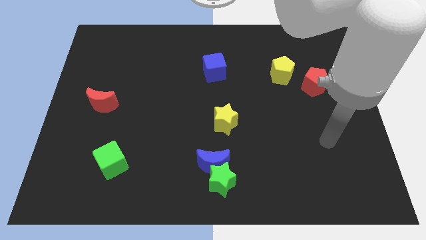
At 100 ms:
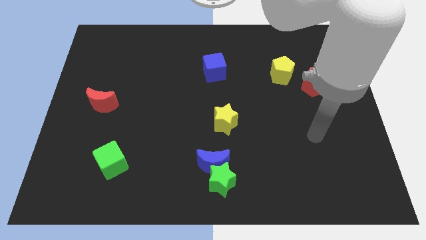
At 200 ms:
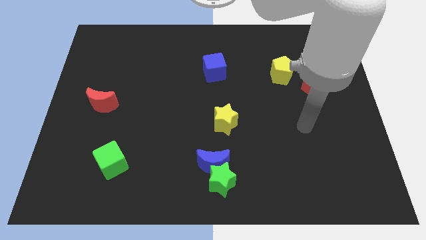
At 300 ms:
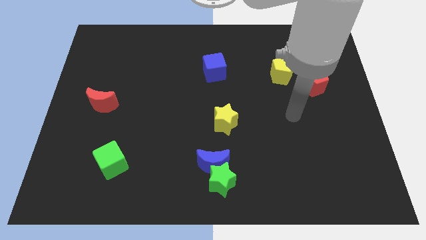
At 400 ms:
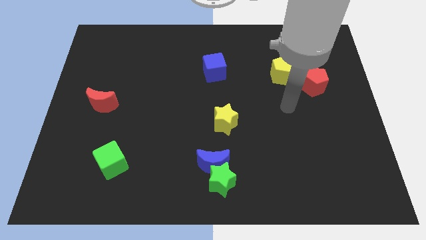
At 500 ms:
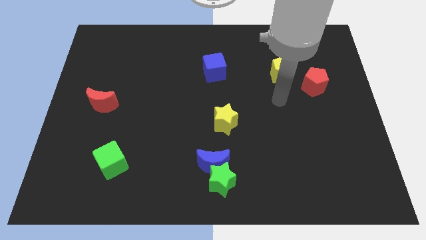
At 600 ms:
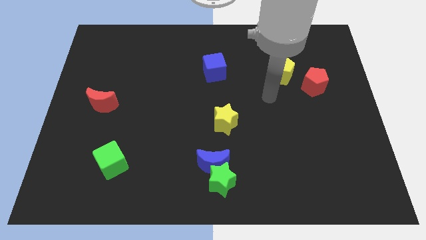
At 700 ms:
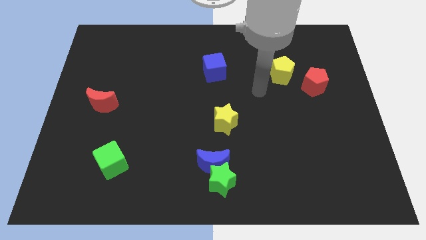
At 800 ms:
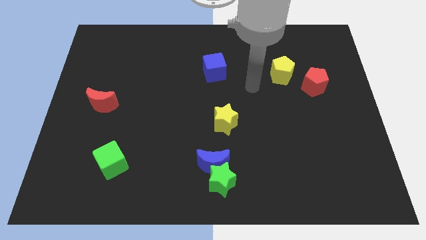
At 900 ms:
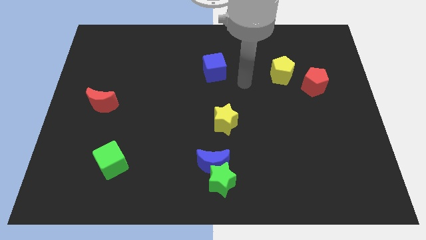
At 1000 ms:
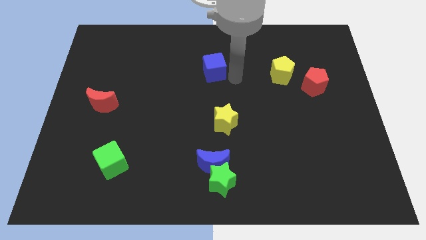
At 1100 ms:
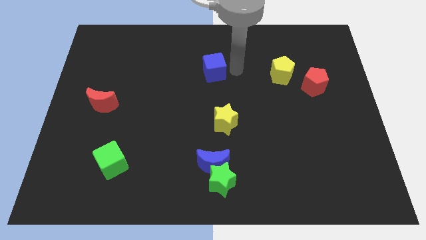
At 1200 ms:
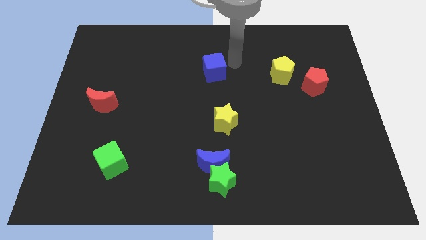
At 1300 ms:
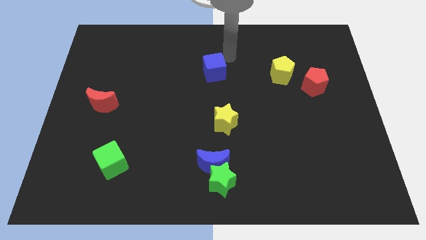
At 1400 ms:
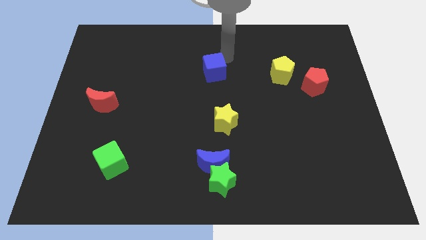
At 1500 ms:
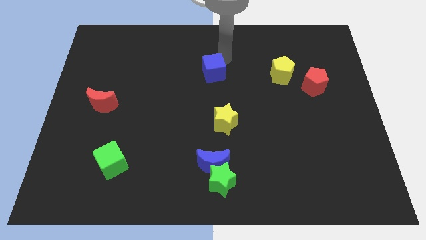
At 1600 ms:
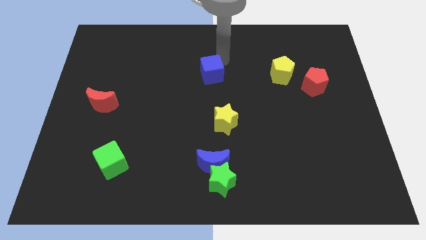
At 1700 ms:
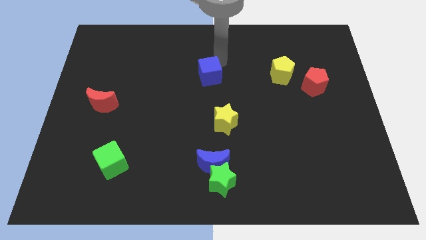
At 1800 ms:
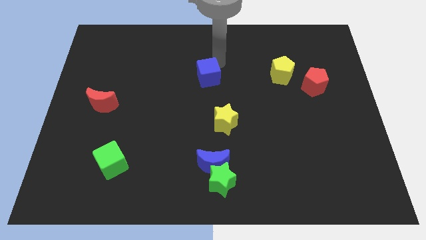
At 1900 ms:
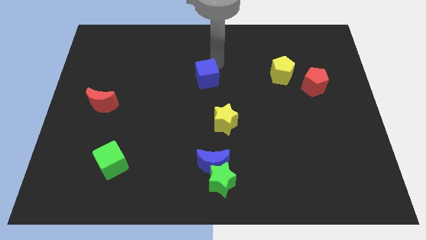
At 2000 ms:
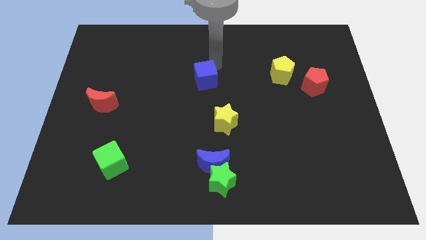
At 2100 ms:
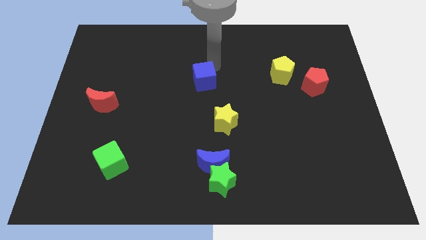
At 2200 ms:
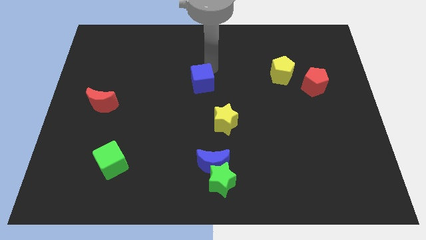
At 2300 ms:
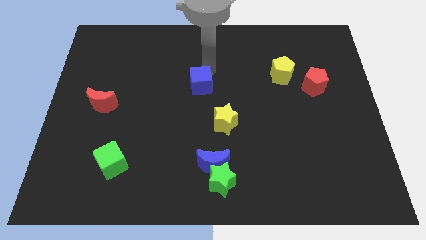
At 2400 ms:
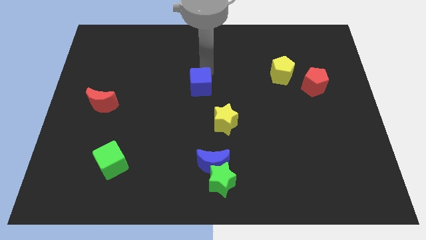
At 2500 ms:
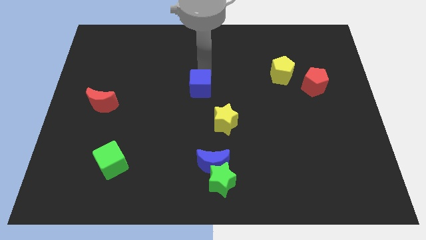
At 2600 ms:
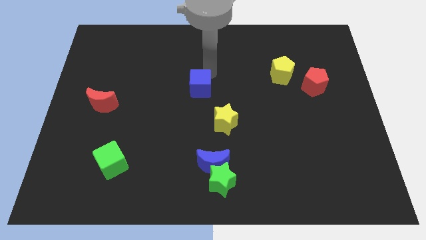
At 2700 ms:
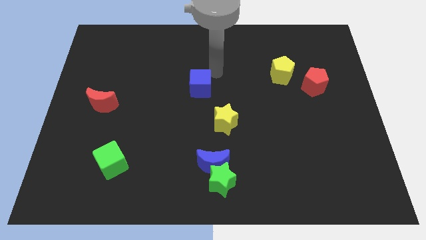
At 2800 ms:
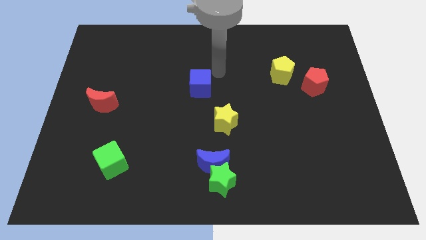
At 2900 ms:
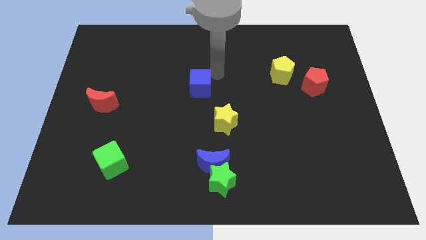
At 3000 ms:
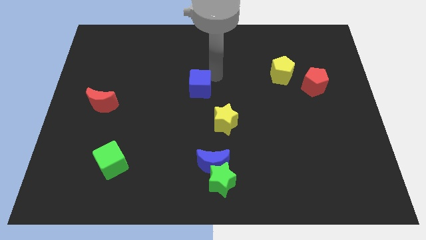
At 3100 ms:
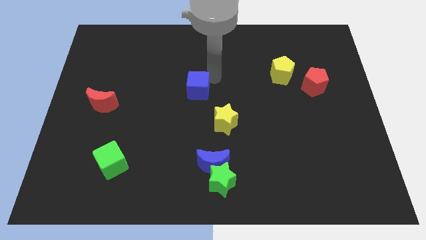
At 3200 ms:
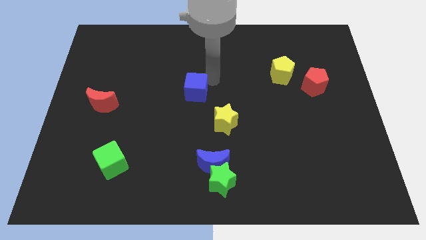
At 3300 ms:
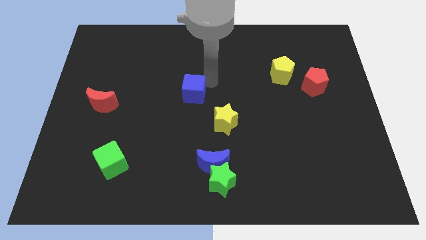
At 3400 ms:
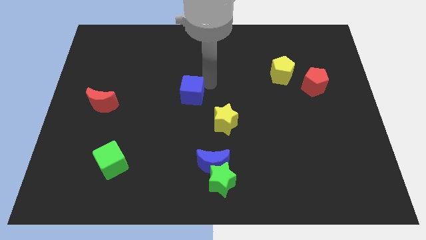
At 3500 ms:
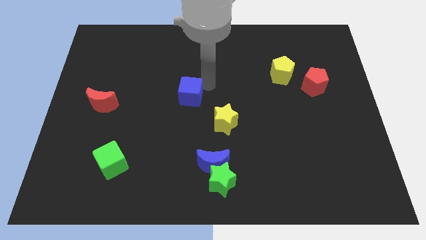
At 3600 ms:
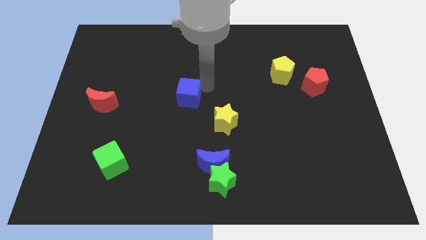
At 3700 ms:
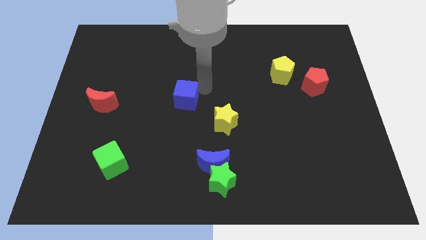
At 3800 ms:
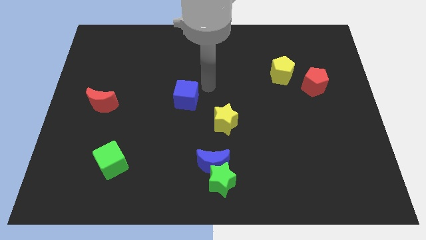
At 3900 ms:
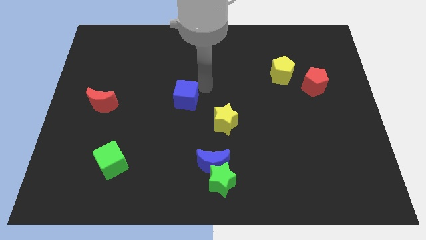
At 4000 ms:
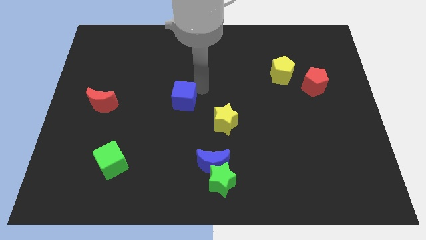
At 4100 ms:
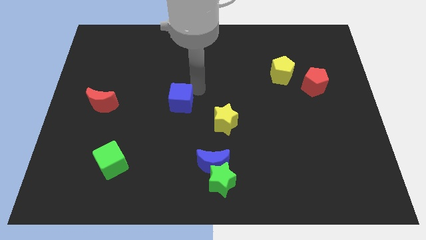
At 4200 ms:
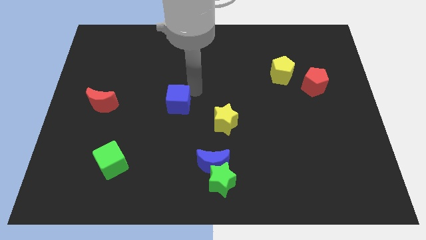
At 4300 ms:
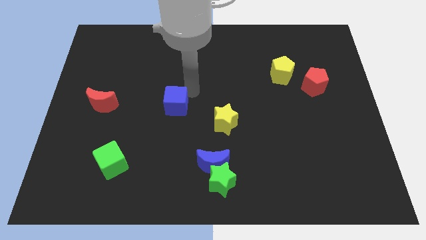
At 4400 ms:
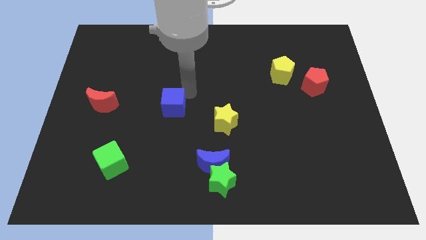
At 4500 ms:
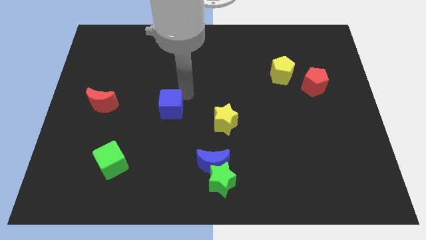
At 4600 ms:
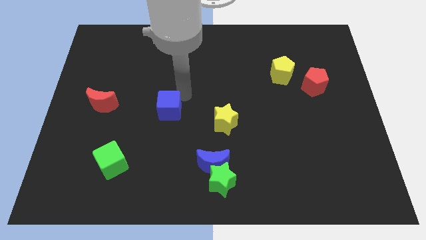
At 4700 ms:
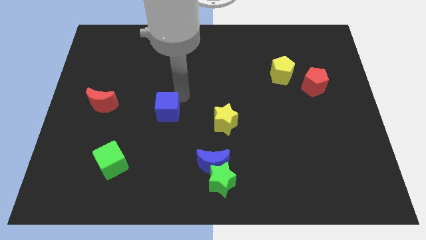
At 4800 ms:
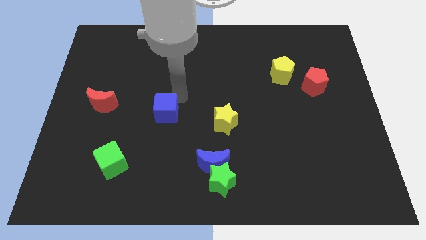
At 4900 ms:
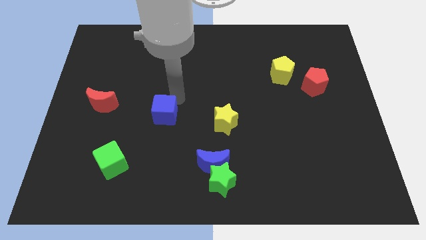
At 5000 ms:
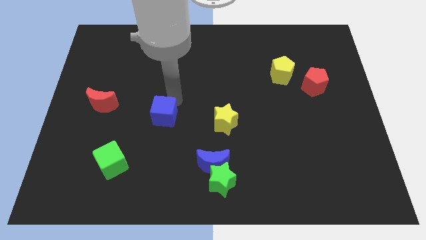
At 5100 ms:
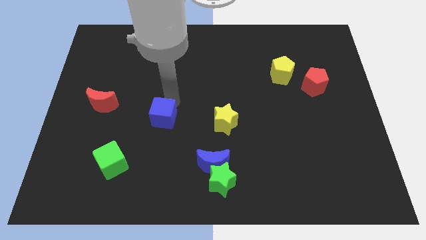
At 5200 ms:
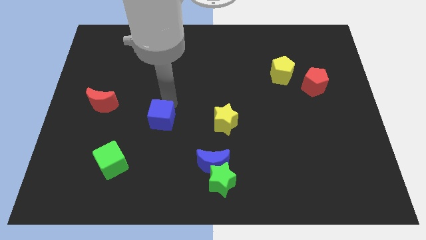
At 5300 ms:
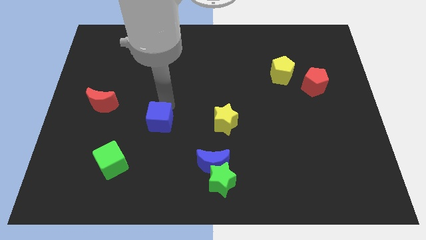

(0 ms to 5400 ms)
push the blue cube down and to the left

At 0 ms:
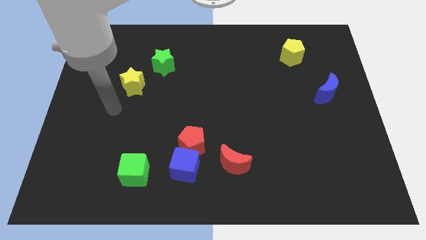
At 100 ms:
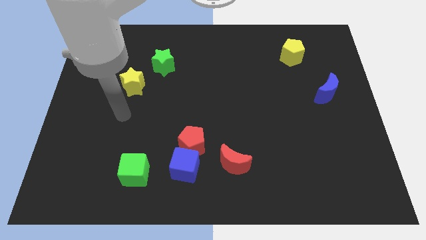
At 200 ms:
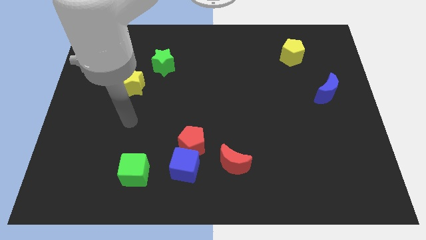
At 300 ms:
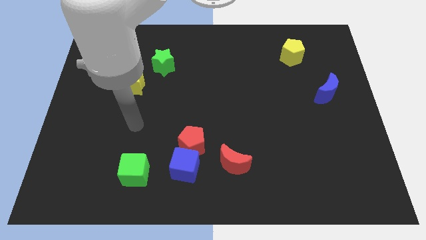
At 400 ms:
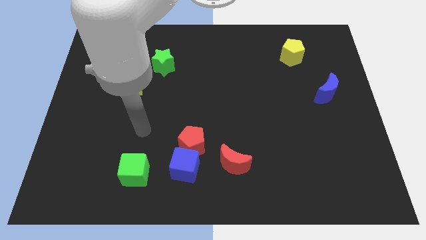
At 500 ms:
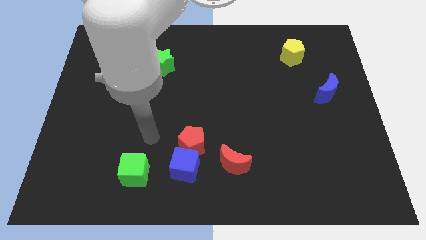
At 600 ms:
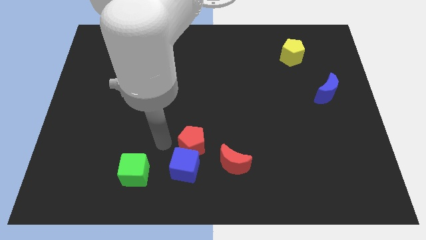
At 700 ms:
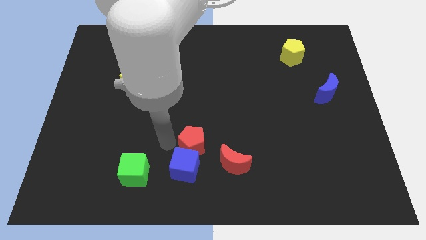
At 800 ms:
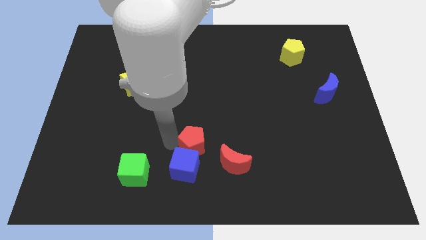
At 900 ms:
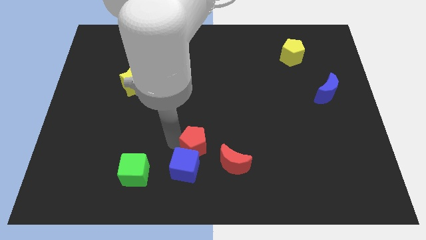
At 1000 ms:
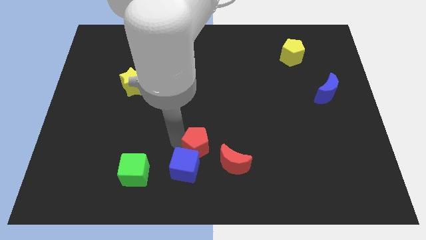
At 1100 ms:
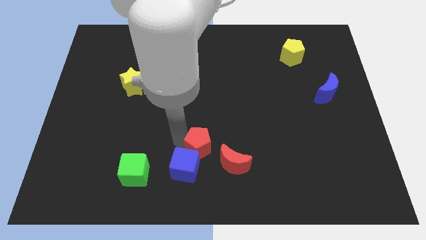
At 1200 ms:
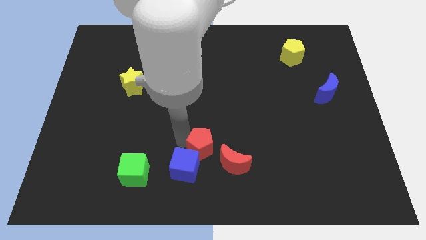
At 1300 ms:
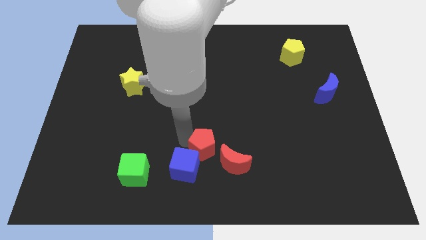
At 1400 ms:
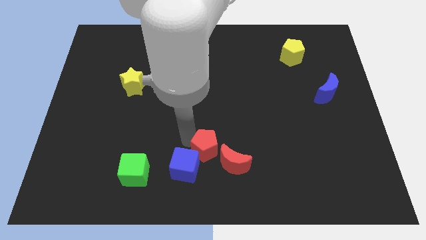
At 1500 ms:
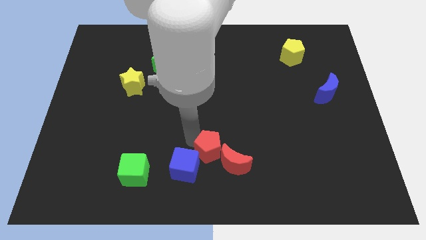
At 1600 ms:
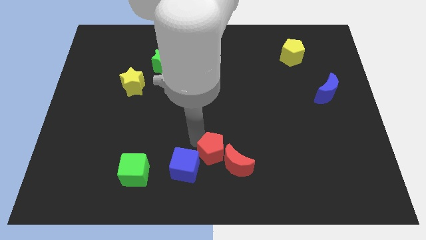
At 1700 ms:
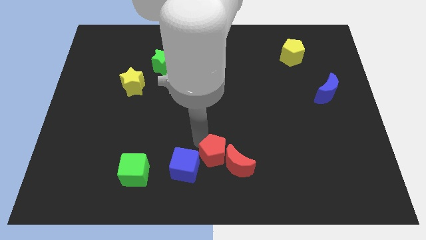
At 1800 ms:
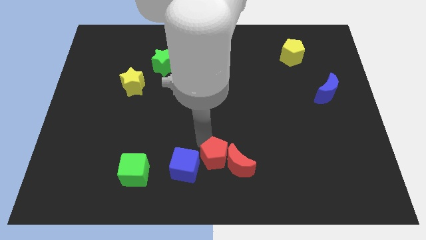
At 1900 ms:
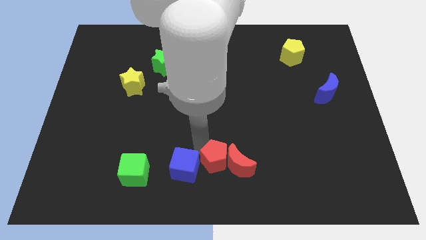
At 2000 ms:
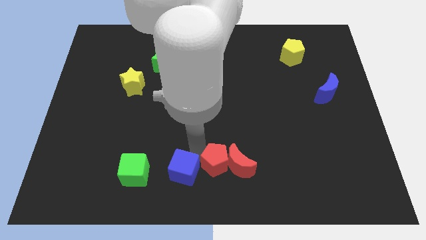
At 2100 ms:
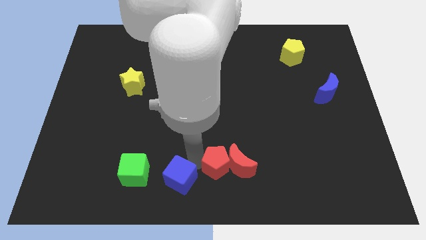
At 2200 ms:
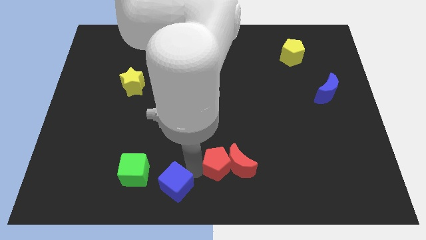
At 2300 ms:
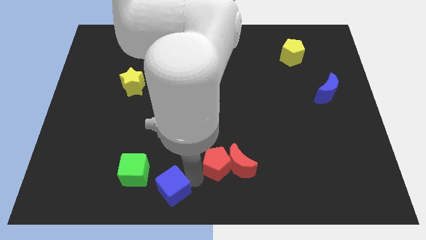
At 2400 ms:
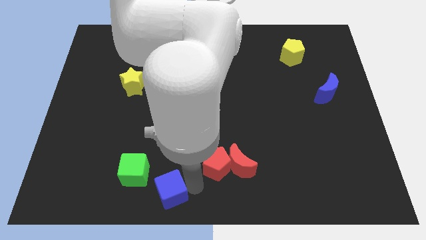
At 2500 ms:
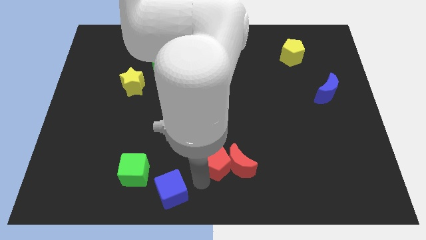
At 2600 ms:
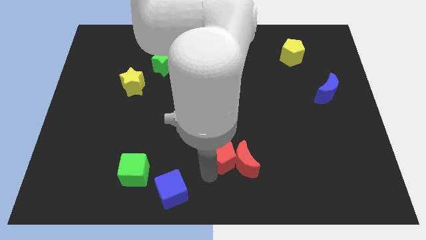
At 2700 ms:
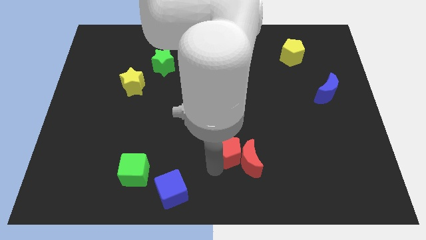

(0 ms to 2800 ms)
slide the red pentagon right a little bit
